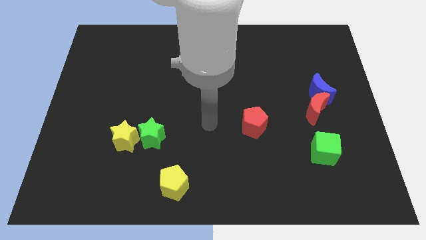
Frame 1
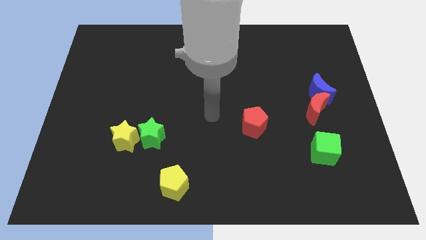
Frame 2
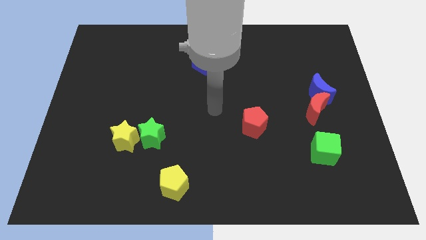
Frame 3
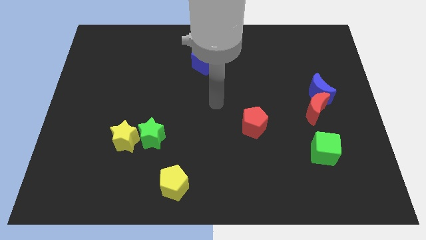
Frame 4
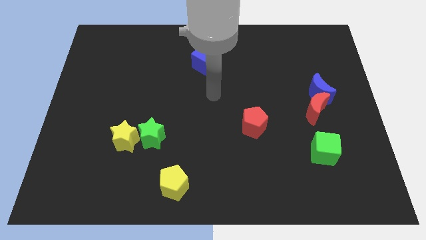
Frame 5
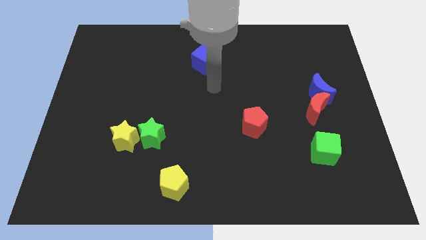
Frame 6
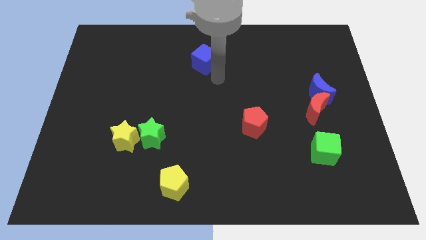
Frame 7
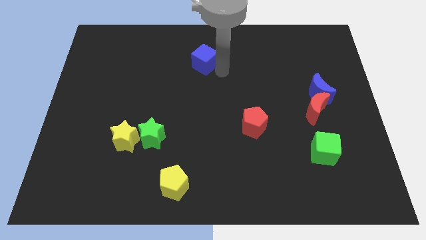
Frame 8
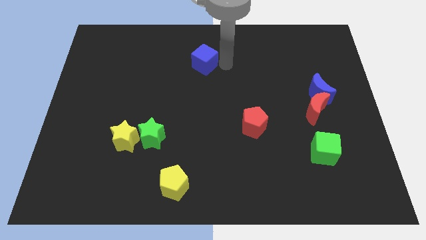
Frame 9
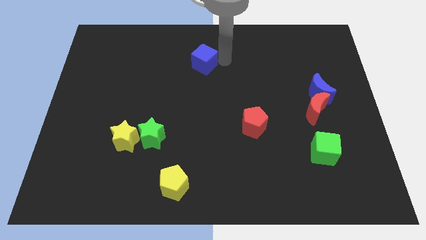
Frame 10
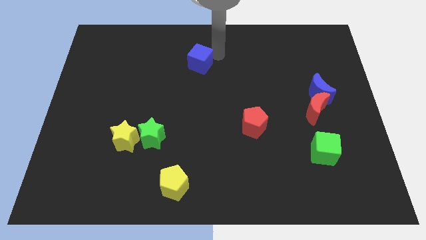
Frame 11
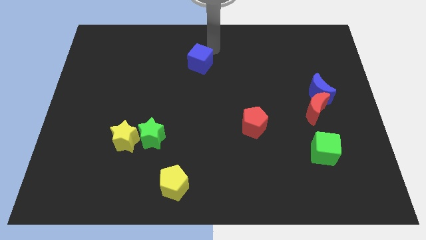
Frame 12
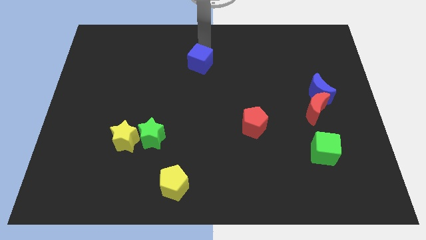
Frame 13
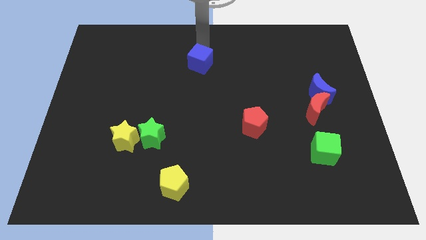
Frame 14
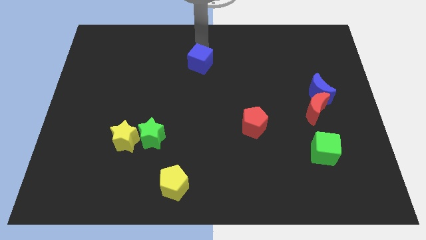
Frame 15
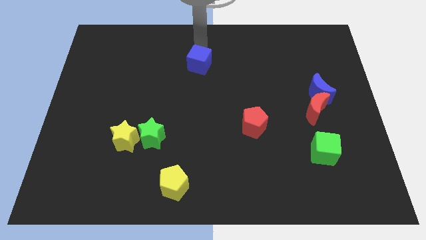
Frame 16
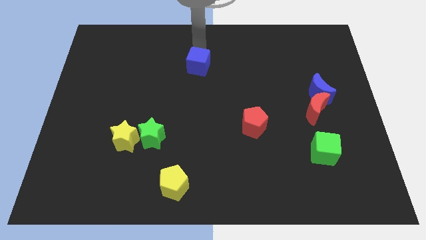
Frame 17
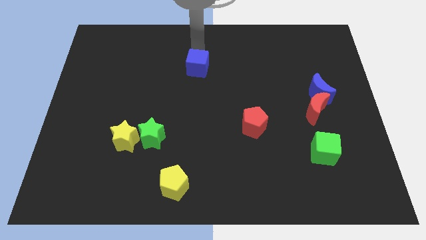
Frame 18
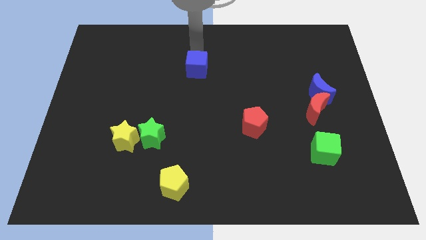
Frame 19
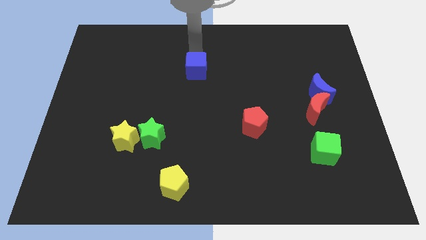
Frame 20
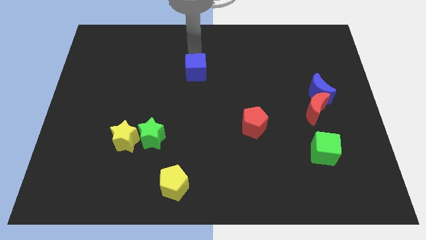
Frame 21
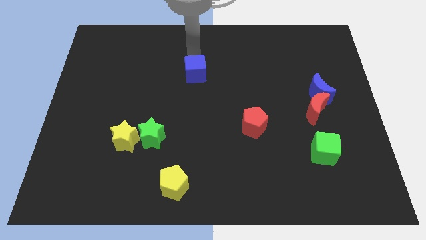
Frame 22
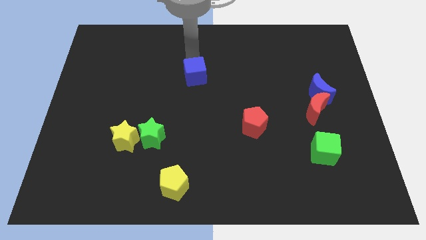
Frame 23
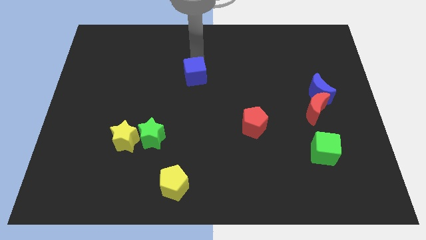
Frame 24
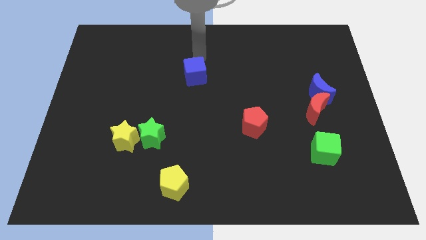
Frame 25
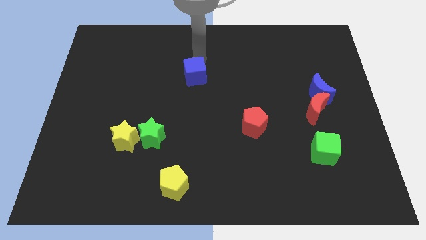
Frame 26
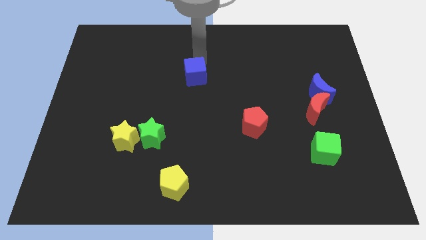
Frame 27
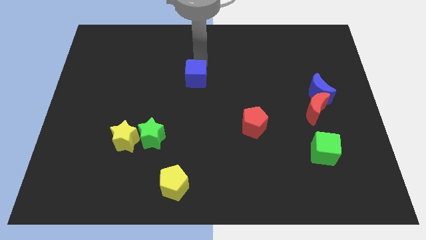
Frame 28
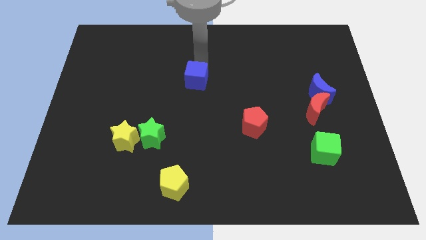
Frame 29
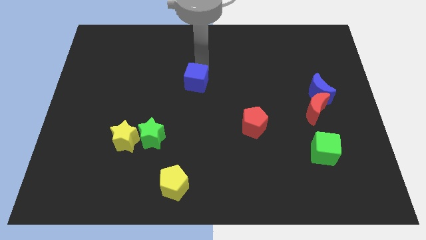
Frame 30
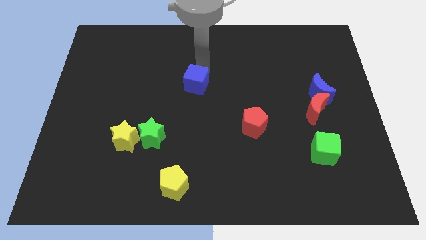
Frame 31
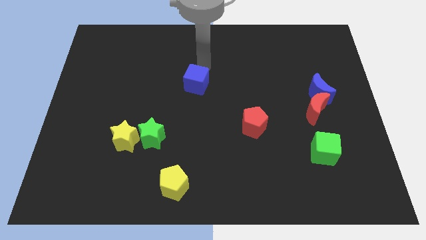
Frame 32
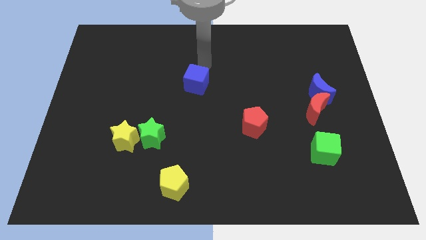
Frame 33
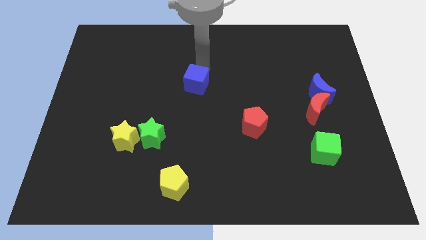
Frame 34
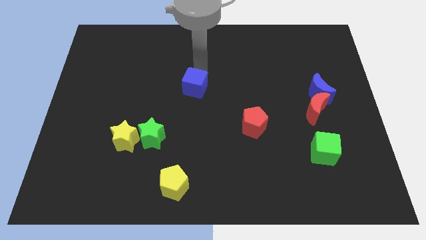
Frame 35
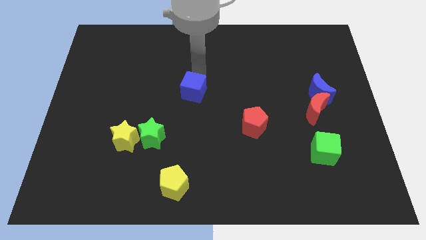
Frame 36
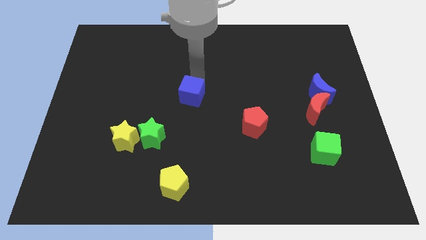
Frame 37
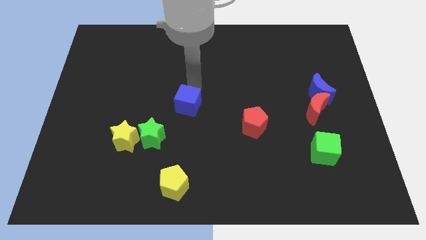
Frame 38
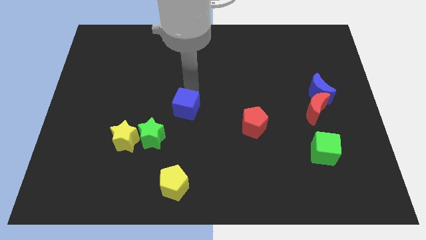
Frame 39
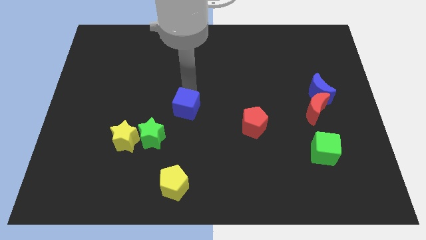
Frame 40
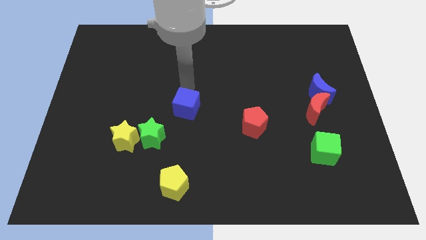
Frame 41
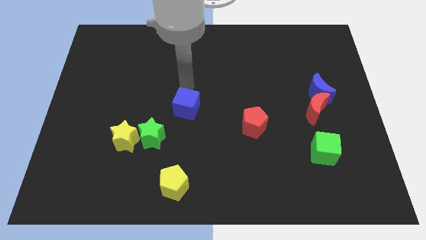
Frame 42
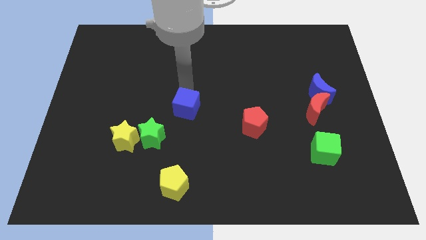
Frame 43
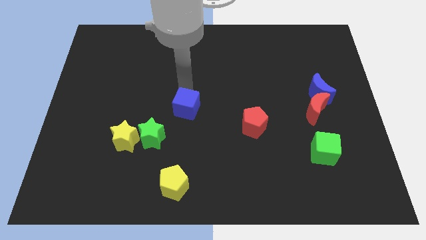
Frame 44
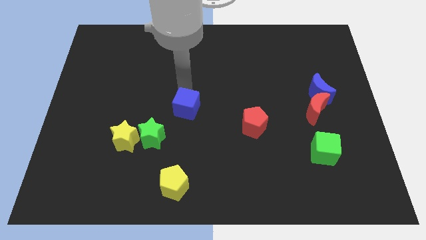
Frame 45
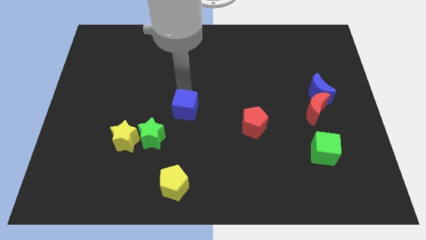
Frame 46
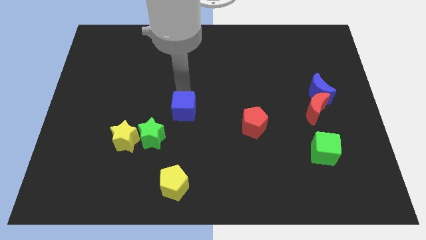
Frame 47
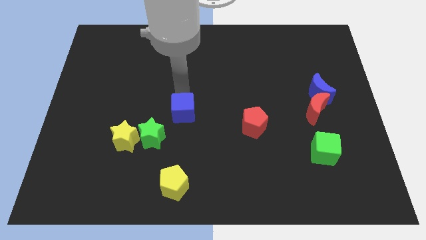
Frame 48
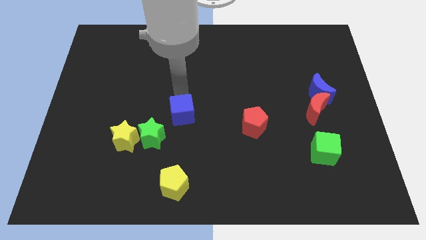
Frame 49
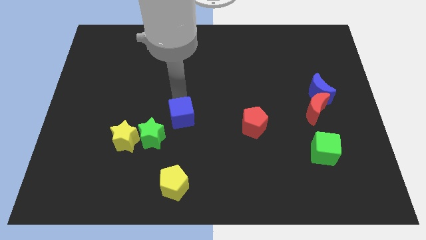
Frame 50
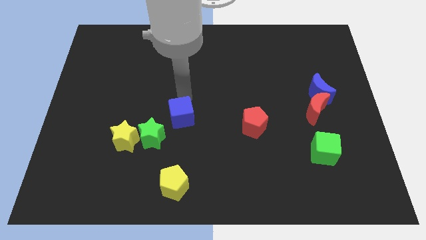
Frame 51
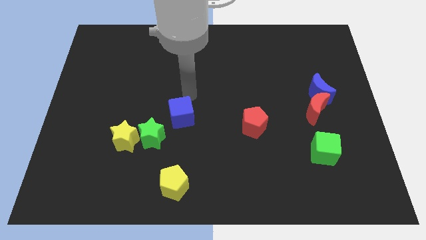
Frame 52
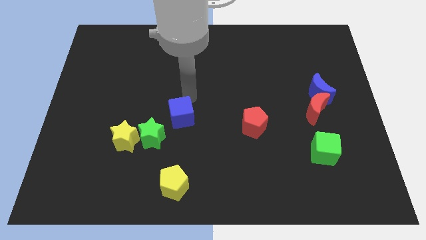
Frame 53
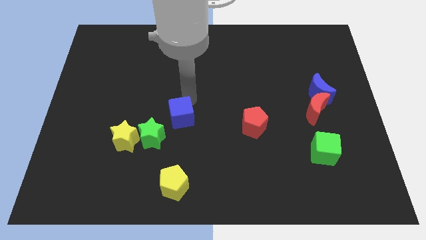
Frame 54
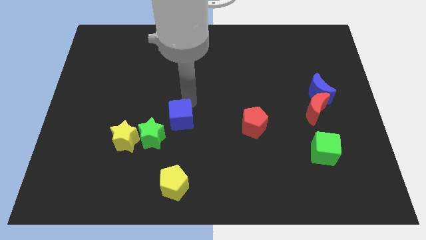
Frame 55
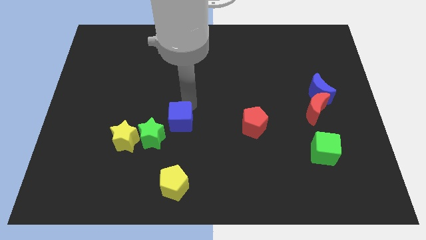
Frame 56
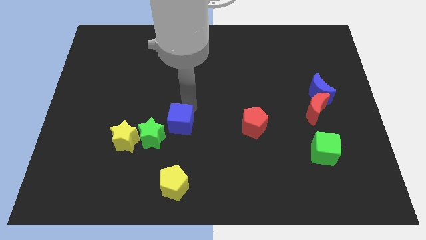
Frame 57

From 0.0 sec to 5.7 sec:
push the blue cube to the right of the yellow star
